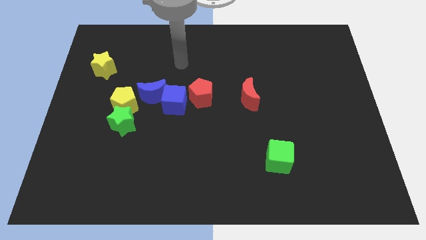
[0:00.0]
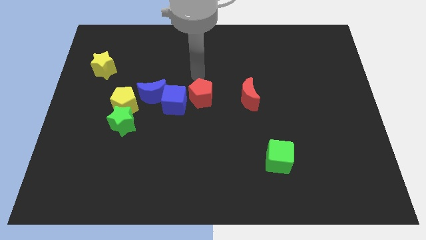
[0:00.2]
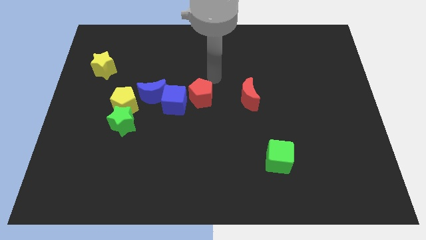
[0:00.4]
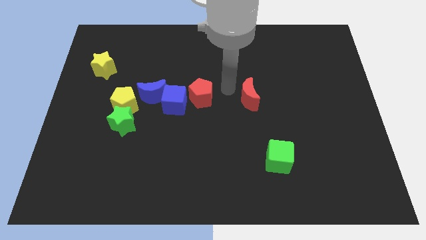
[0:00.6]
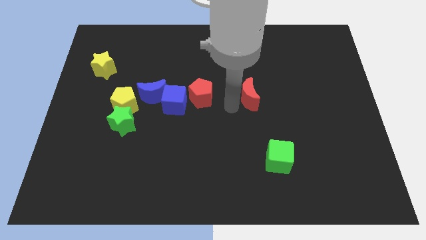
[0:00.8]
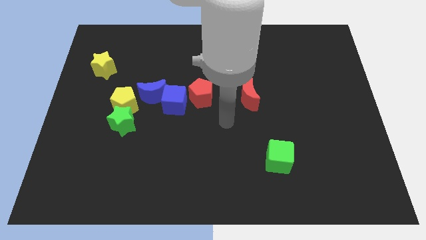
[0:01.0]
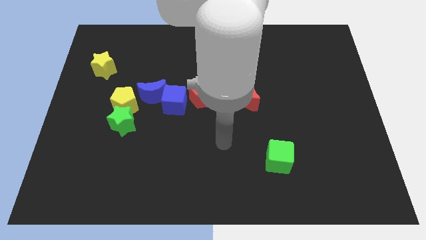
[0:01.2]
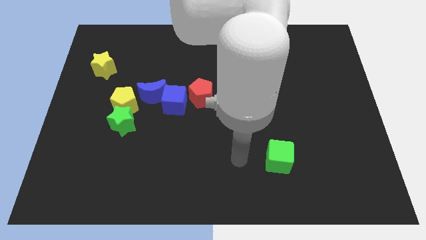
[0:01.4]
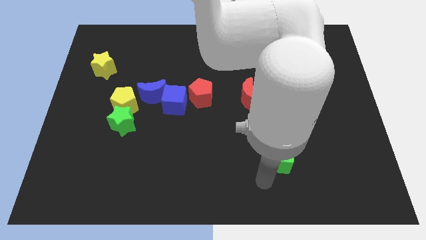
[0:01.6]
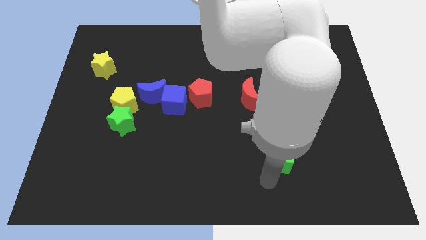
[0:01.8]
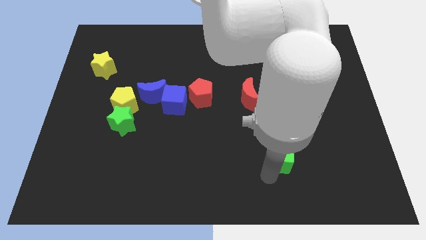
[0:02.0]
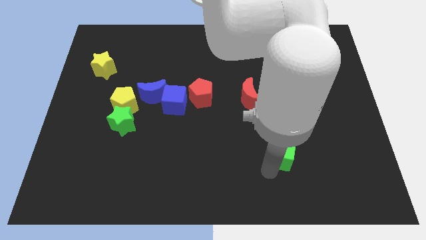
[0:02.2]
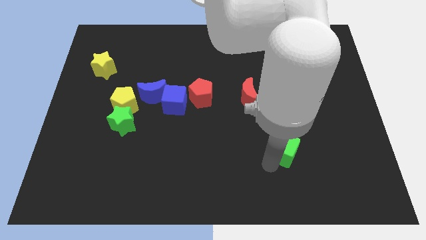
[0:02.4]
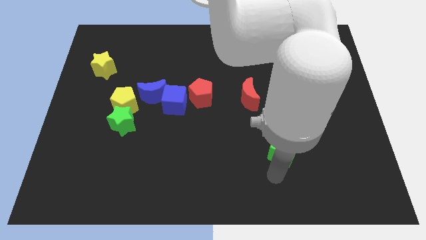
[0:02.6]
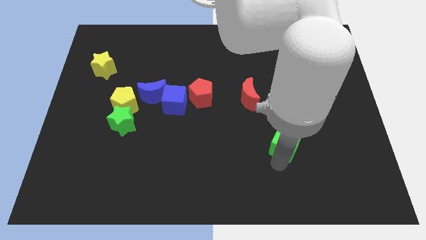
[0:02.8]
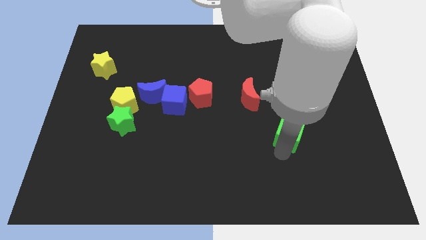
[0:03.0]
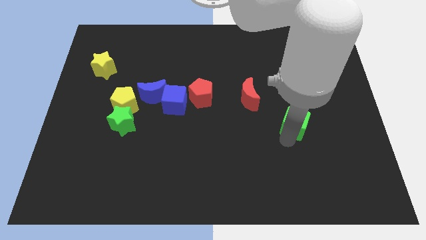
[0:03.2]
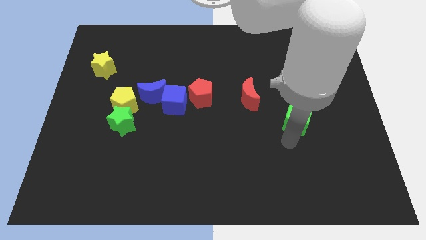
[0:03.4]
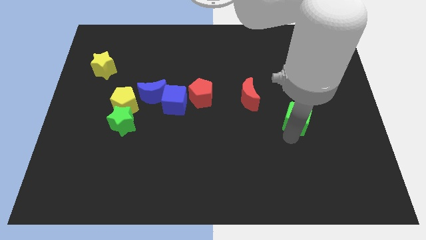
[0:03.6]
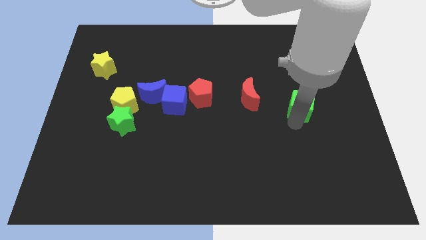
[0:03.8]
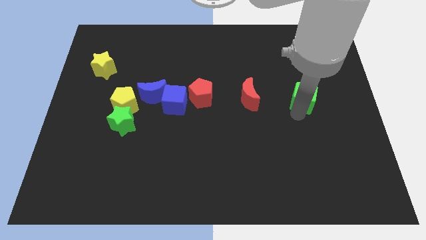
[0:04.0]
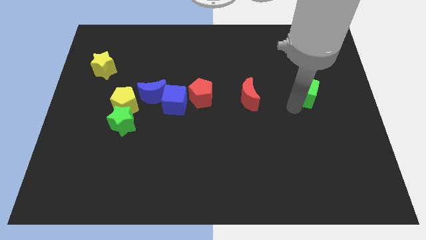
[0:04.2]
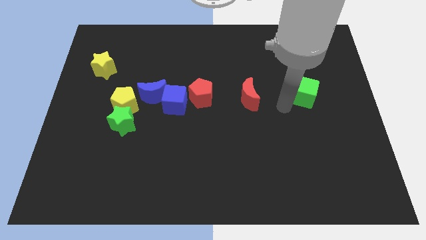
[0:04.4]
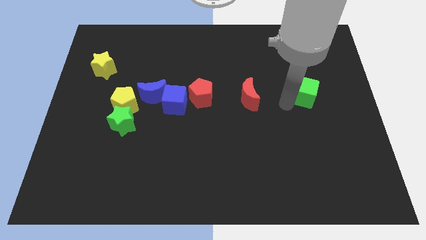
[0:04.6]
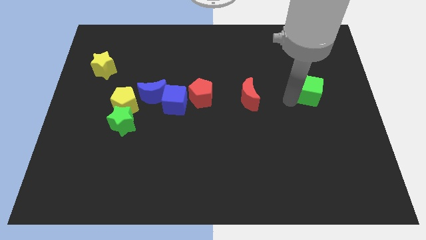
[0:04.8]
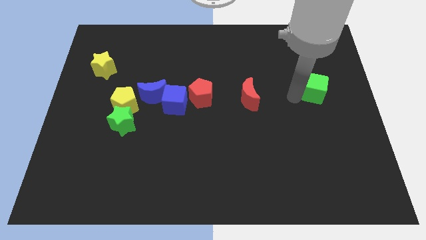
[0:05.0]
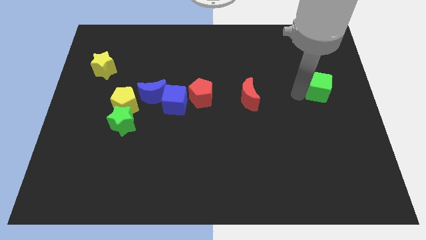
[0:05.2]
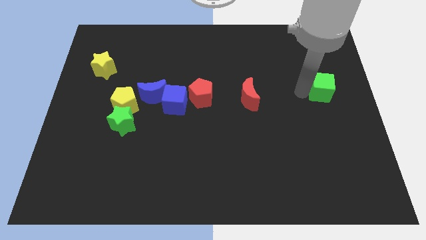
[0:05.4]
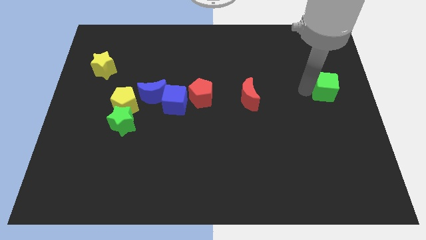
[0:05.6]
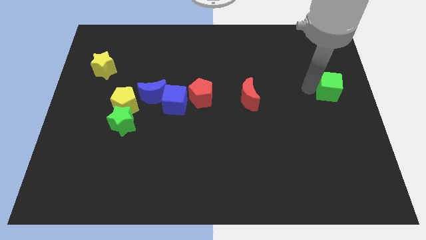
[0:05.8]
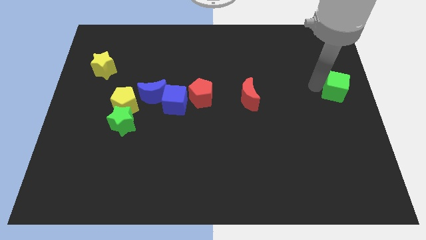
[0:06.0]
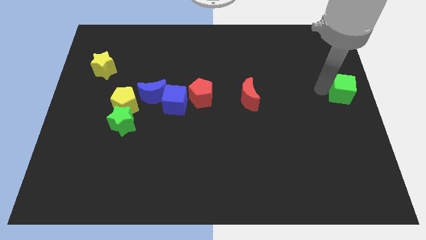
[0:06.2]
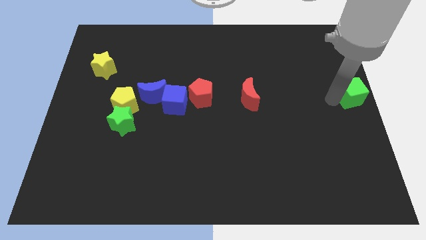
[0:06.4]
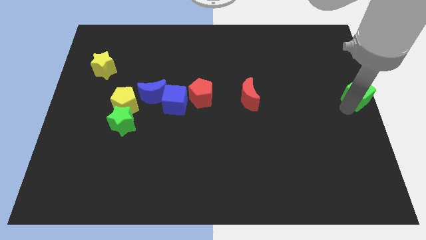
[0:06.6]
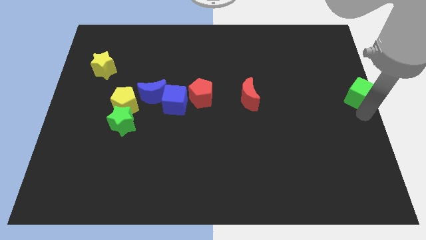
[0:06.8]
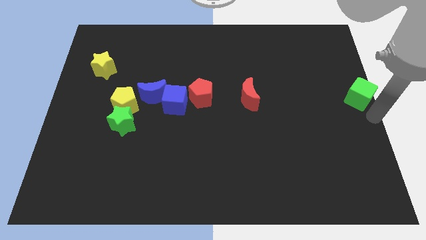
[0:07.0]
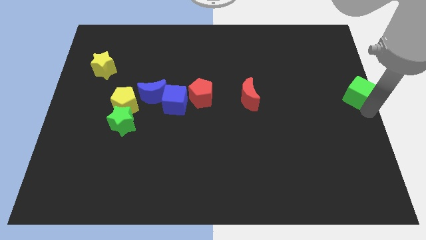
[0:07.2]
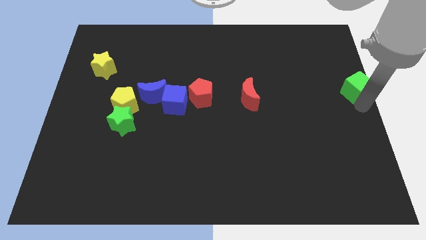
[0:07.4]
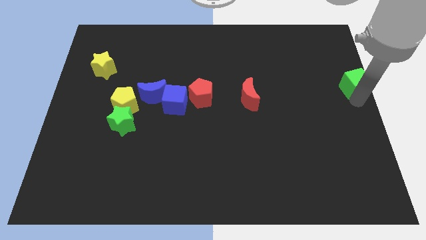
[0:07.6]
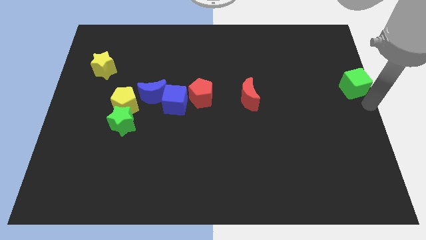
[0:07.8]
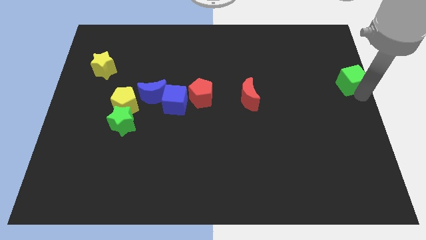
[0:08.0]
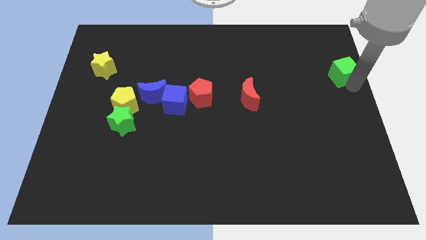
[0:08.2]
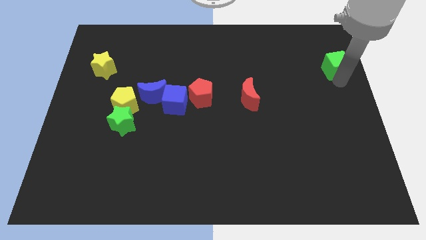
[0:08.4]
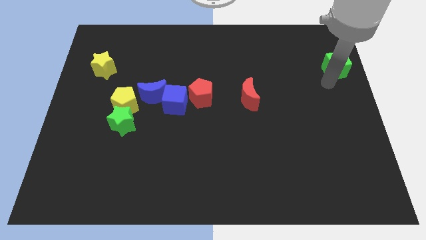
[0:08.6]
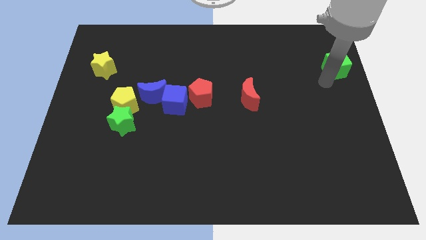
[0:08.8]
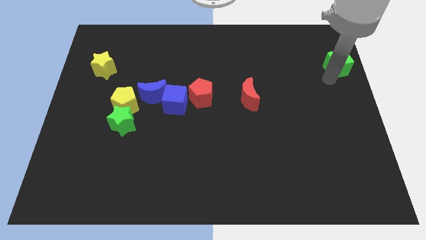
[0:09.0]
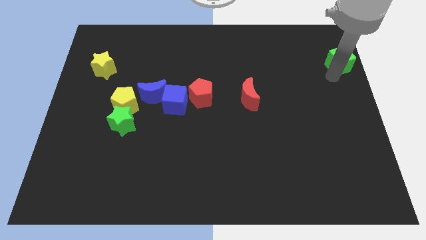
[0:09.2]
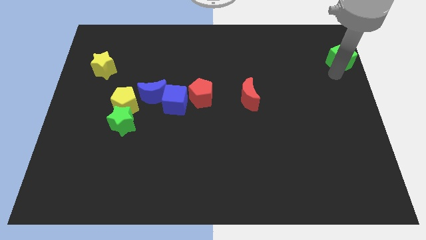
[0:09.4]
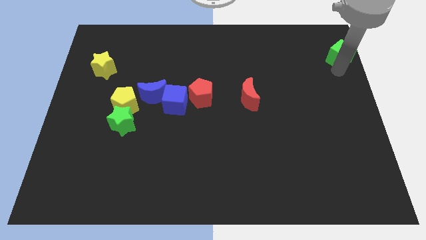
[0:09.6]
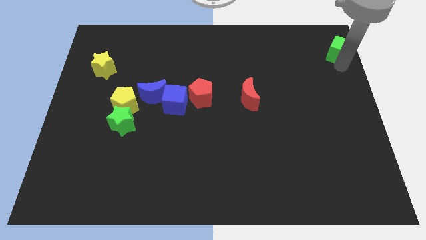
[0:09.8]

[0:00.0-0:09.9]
put the green cube to the upper right corner
